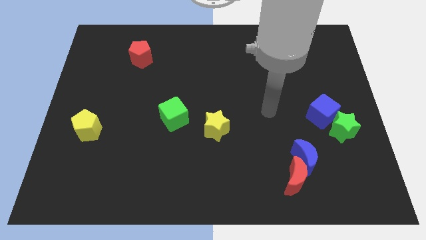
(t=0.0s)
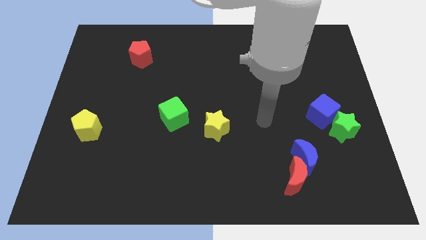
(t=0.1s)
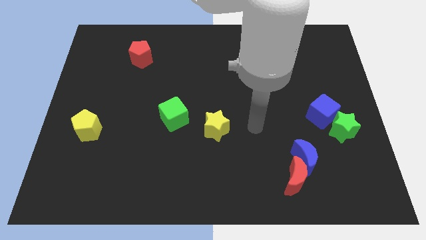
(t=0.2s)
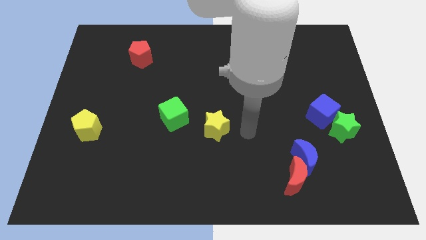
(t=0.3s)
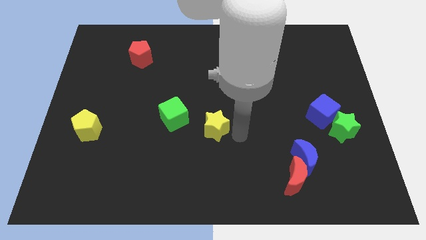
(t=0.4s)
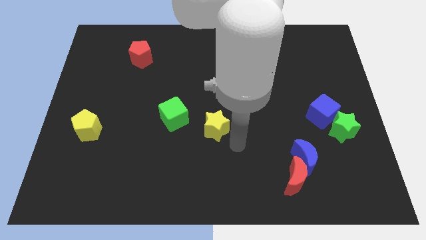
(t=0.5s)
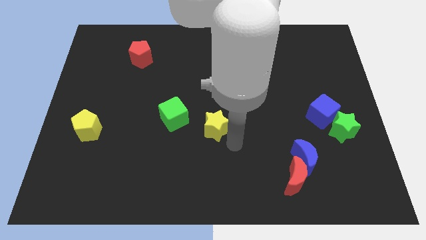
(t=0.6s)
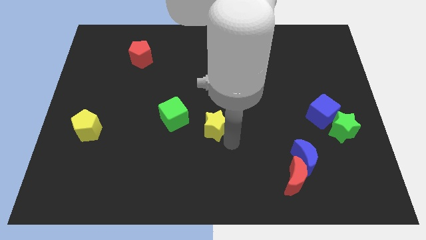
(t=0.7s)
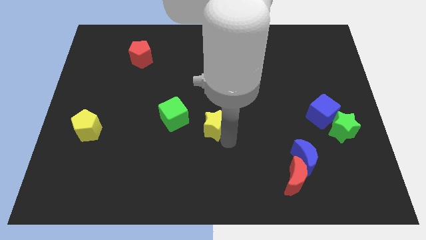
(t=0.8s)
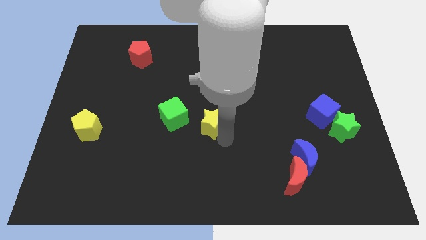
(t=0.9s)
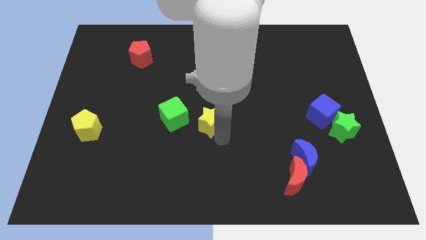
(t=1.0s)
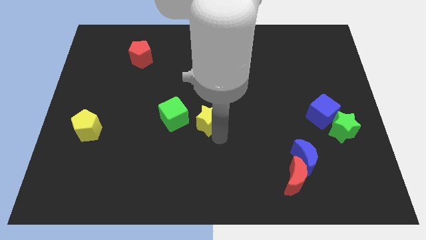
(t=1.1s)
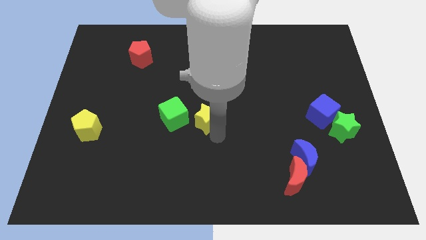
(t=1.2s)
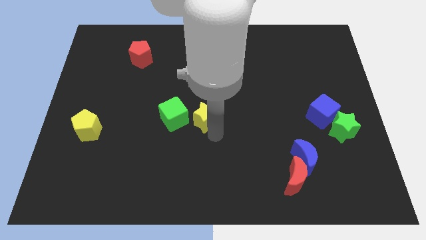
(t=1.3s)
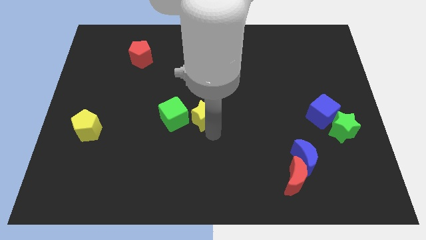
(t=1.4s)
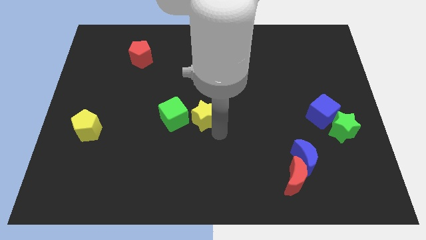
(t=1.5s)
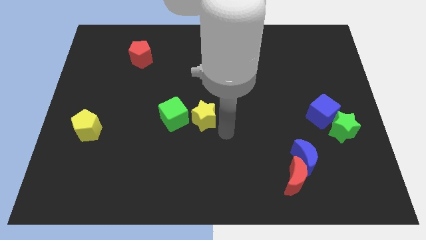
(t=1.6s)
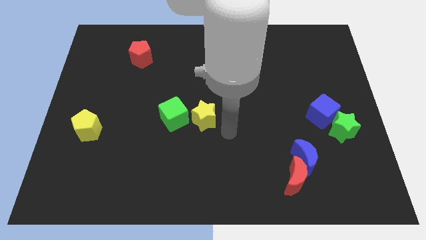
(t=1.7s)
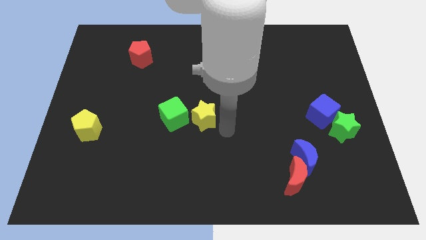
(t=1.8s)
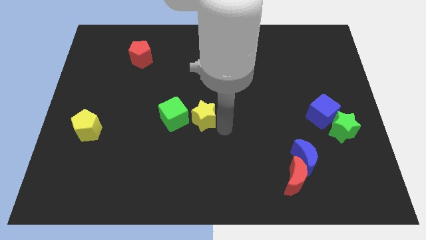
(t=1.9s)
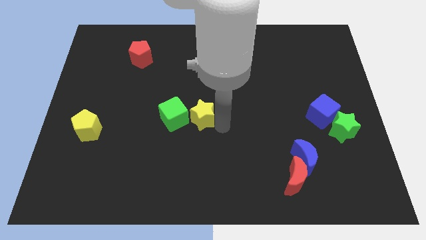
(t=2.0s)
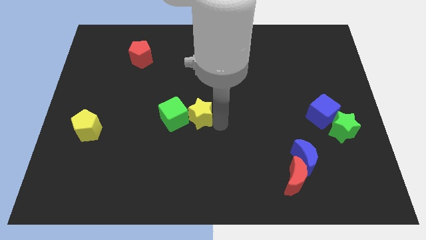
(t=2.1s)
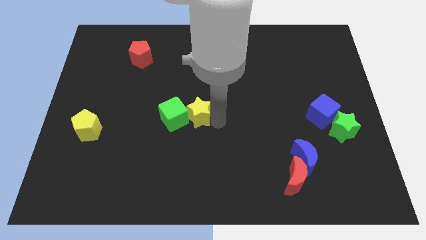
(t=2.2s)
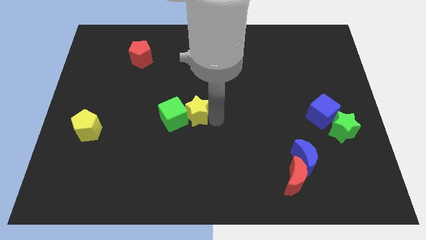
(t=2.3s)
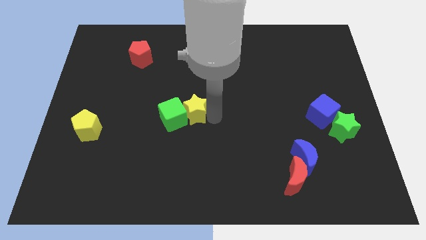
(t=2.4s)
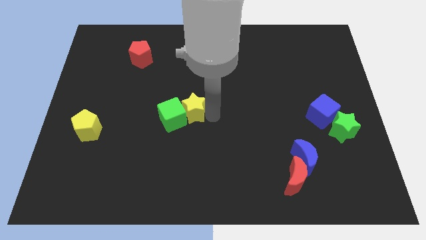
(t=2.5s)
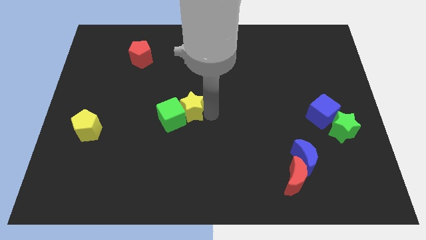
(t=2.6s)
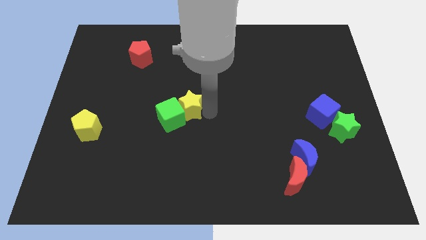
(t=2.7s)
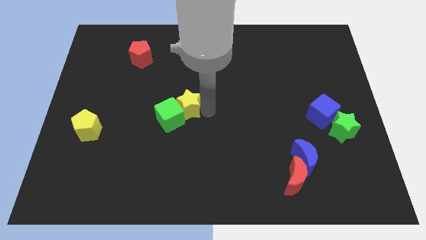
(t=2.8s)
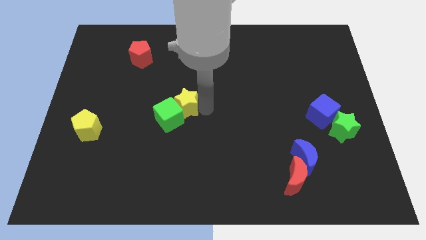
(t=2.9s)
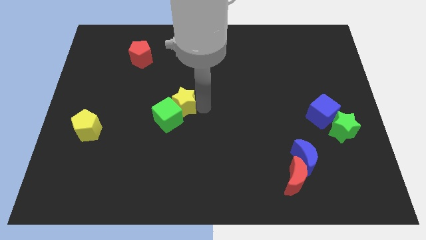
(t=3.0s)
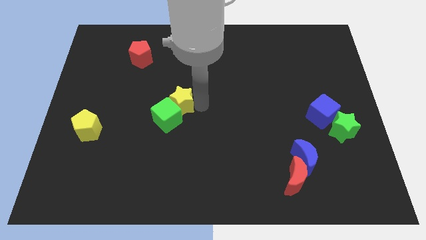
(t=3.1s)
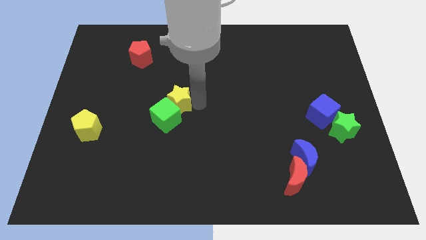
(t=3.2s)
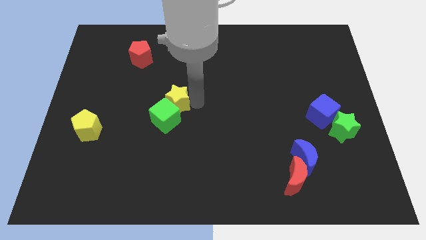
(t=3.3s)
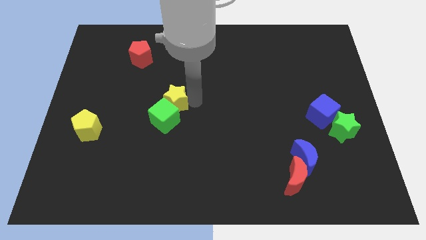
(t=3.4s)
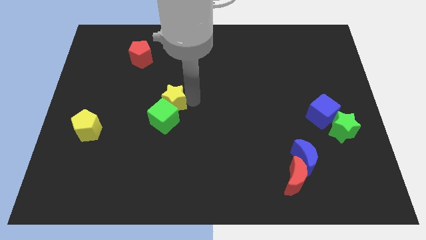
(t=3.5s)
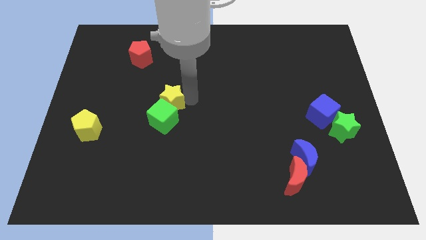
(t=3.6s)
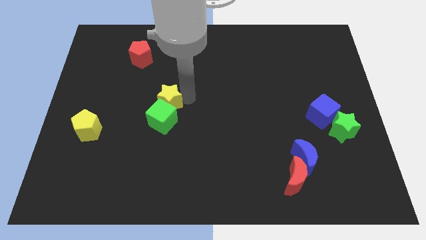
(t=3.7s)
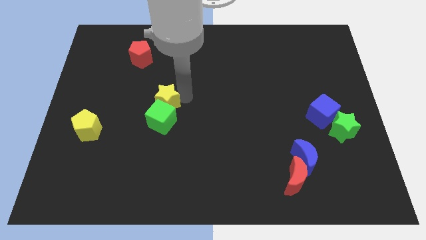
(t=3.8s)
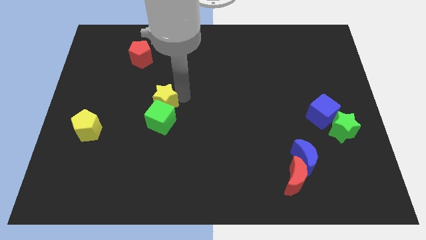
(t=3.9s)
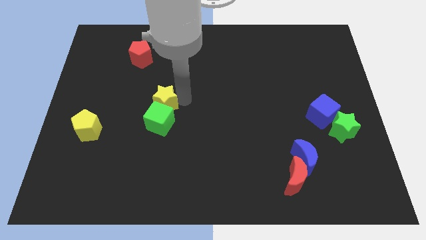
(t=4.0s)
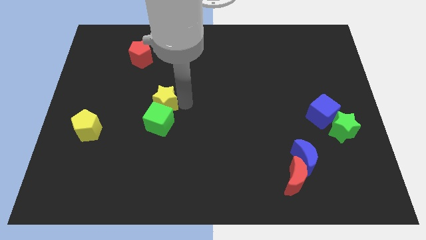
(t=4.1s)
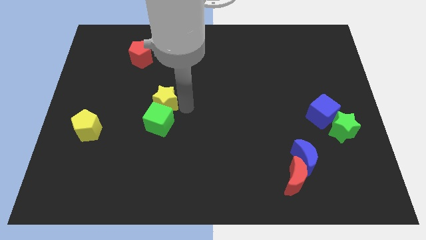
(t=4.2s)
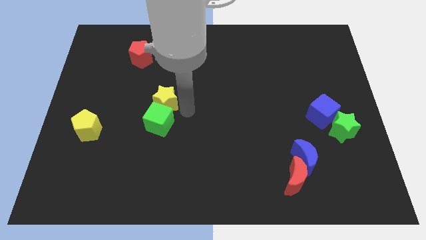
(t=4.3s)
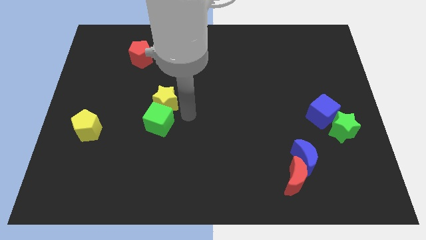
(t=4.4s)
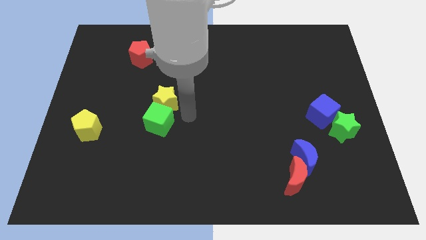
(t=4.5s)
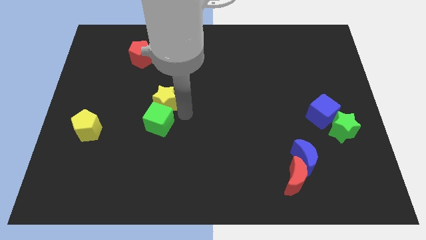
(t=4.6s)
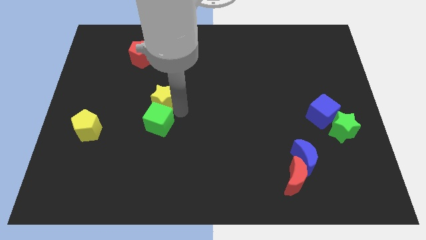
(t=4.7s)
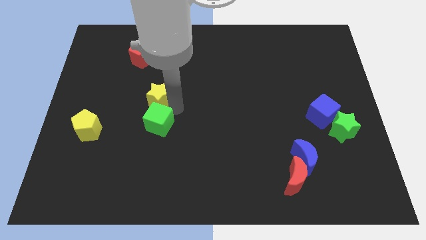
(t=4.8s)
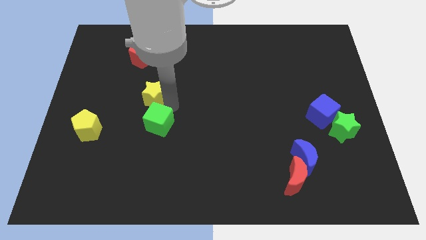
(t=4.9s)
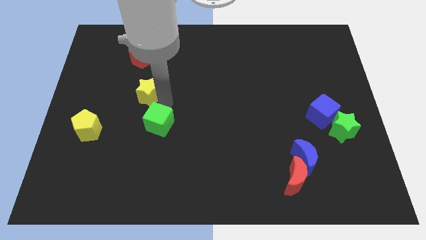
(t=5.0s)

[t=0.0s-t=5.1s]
put the yellow star below the red pentagon

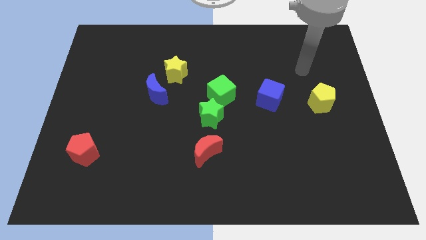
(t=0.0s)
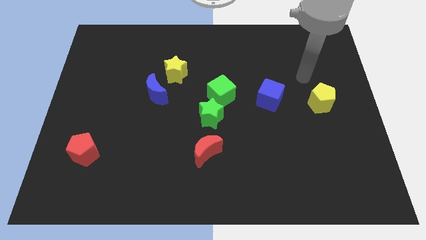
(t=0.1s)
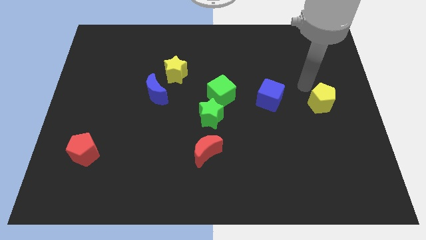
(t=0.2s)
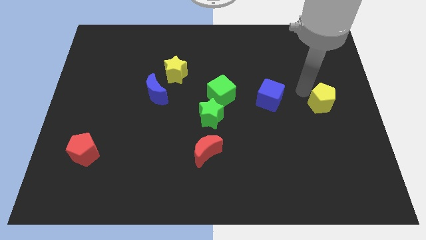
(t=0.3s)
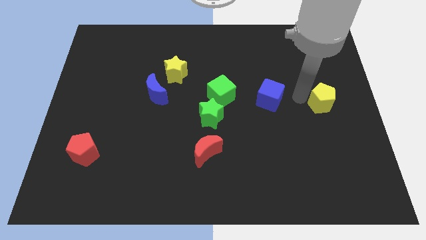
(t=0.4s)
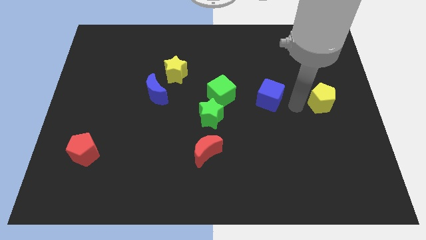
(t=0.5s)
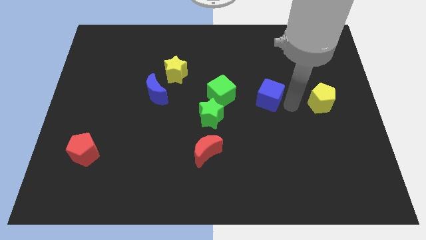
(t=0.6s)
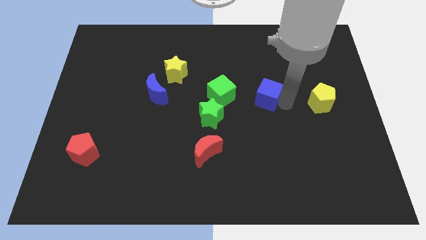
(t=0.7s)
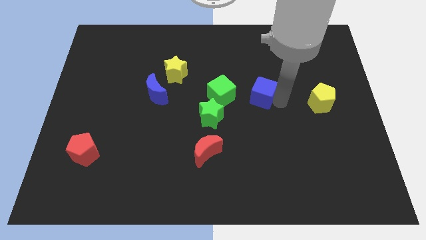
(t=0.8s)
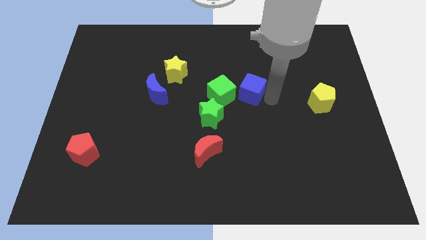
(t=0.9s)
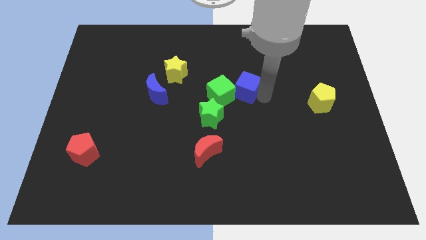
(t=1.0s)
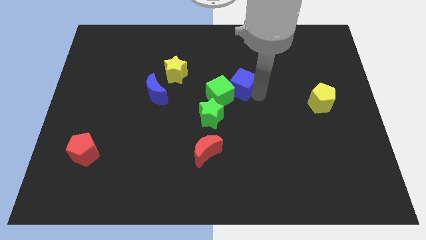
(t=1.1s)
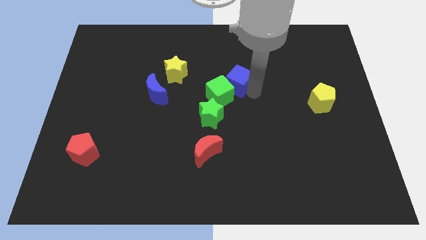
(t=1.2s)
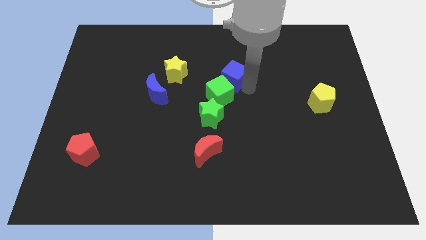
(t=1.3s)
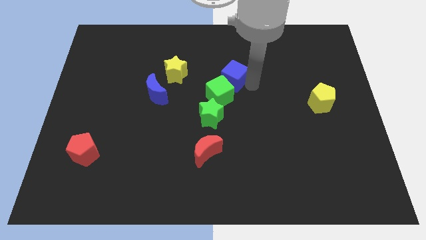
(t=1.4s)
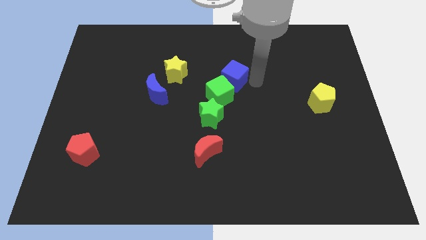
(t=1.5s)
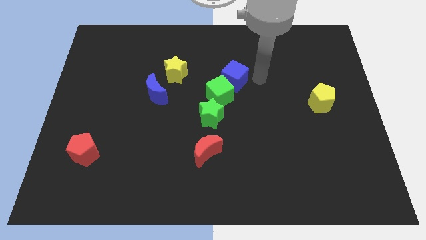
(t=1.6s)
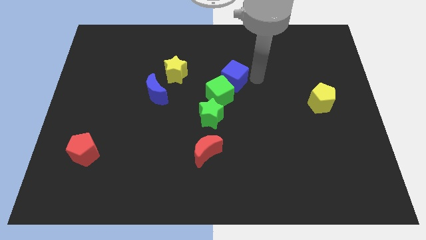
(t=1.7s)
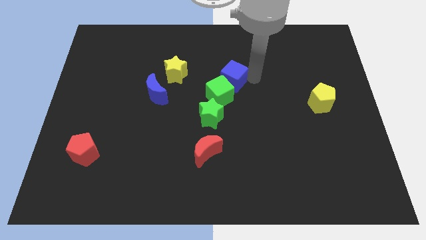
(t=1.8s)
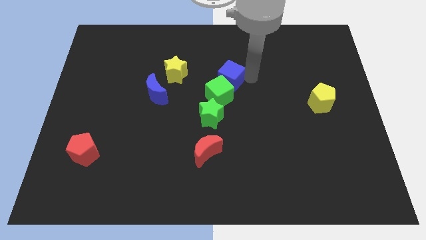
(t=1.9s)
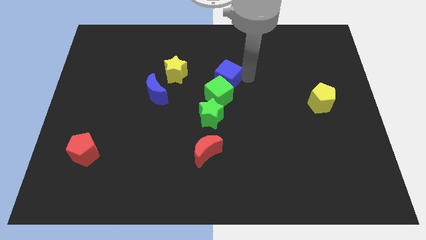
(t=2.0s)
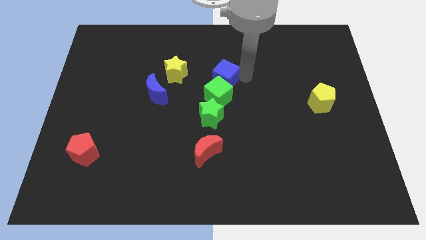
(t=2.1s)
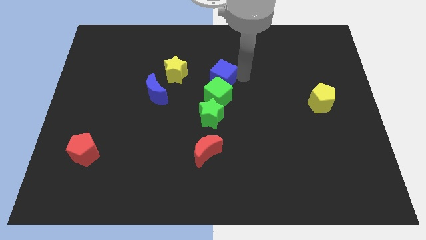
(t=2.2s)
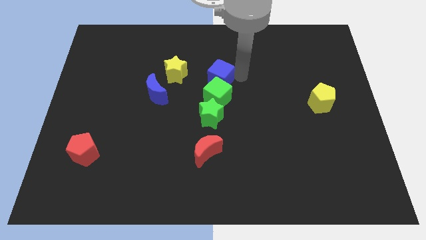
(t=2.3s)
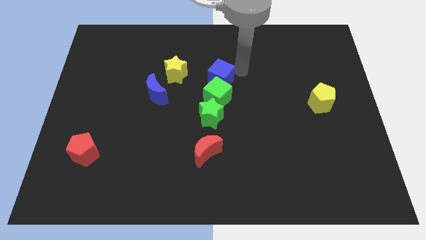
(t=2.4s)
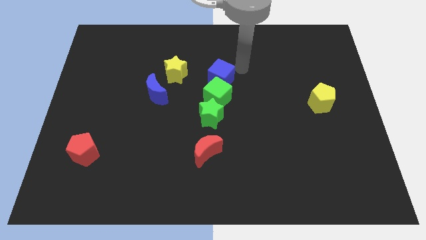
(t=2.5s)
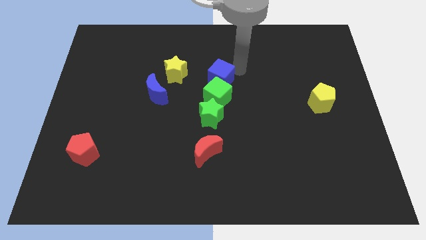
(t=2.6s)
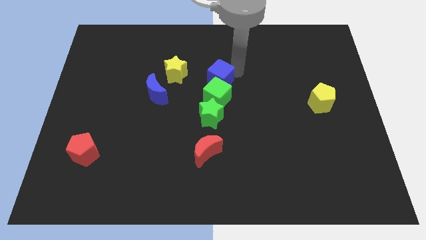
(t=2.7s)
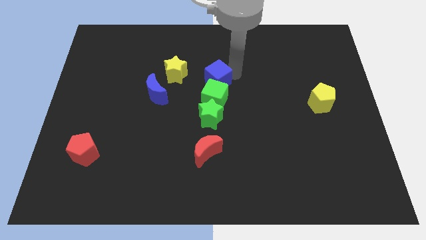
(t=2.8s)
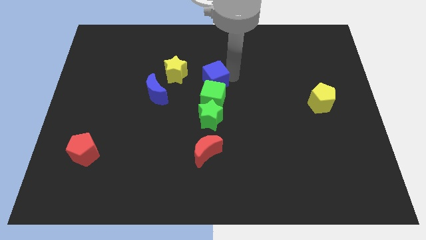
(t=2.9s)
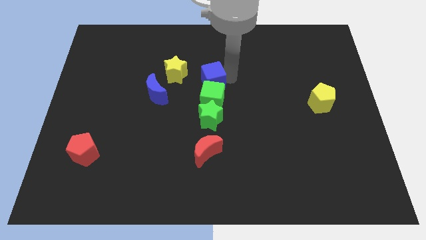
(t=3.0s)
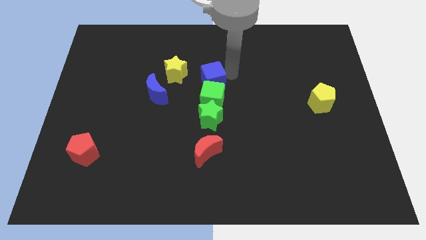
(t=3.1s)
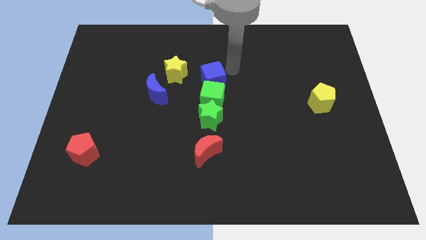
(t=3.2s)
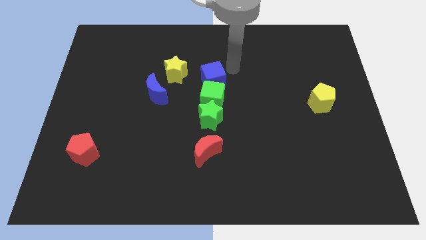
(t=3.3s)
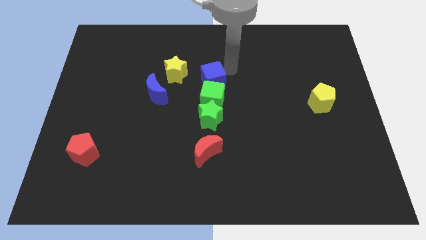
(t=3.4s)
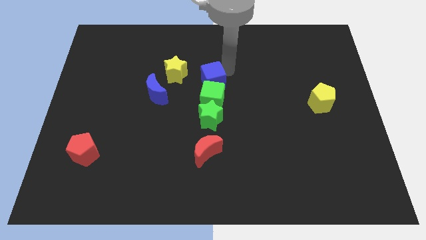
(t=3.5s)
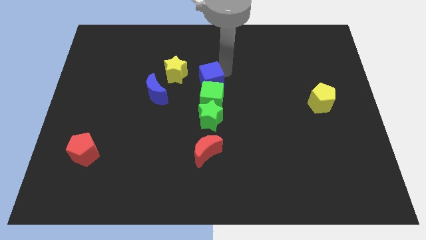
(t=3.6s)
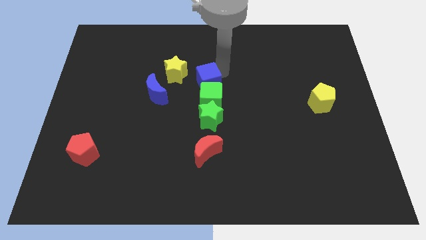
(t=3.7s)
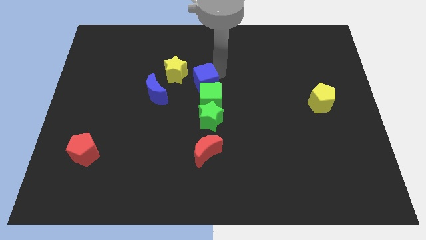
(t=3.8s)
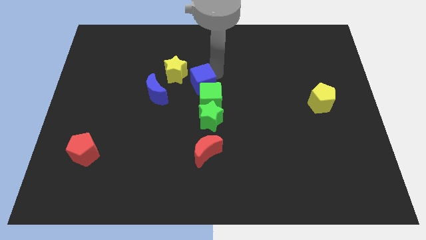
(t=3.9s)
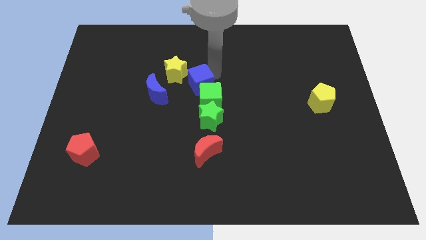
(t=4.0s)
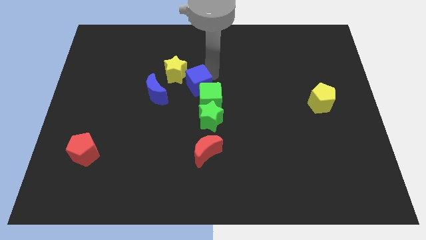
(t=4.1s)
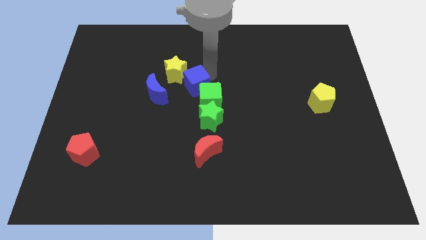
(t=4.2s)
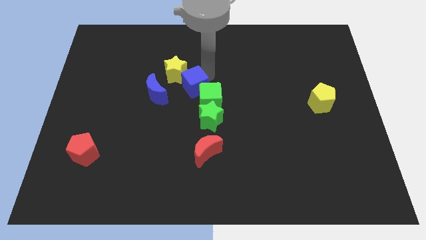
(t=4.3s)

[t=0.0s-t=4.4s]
put the blue cube below the yellow star
